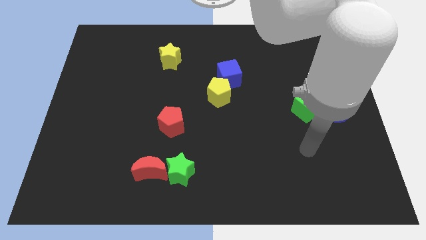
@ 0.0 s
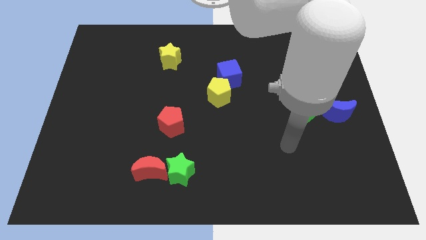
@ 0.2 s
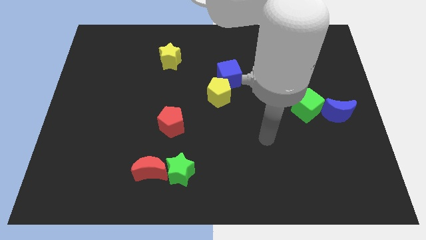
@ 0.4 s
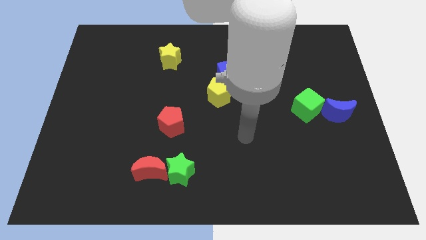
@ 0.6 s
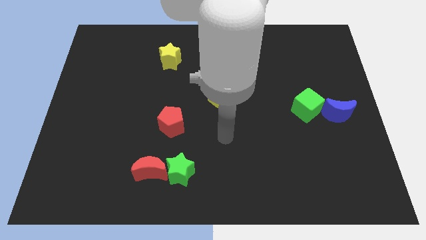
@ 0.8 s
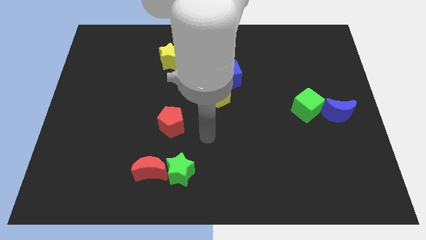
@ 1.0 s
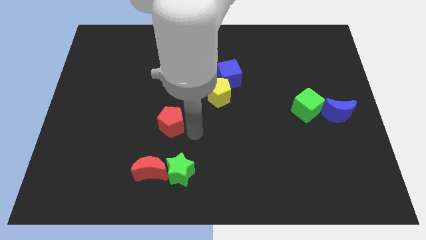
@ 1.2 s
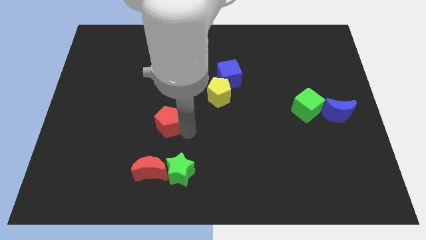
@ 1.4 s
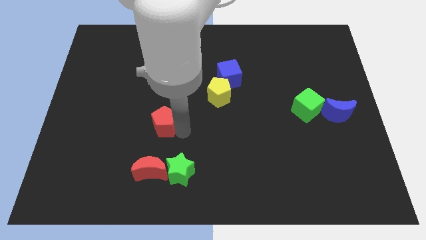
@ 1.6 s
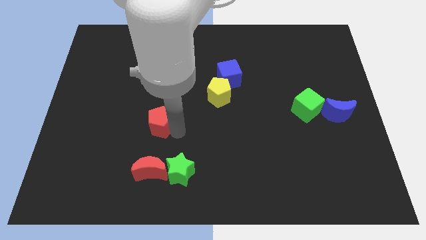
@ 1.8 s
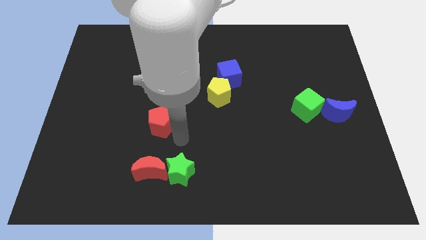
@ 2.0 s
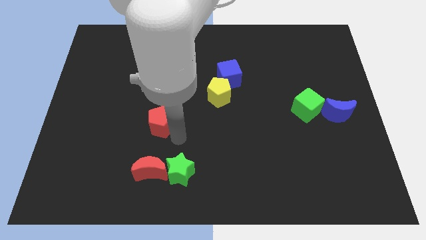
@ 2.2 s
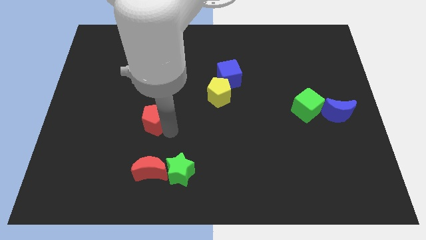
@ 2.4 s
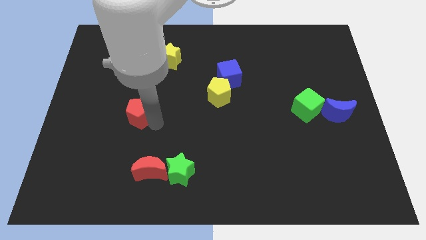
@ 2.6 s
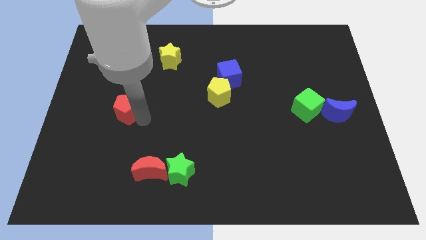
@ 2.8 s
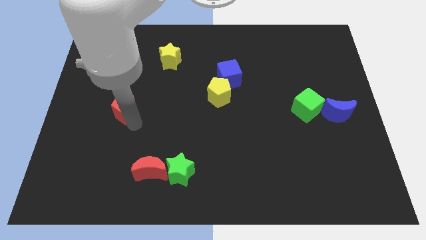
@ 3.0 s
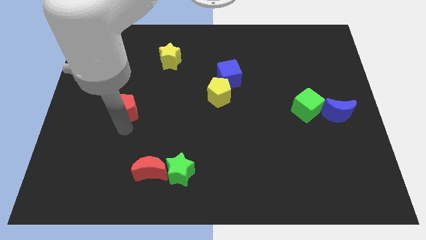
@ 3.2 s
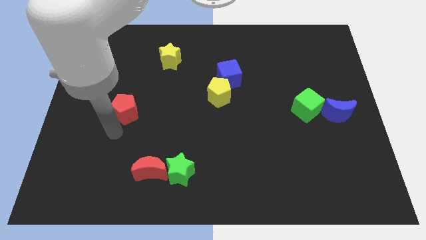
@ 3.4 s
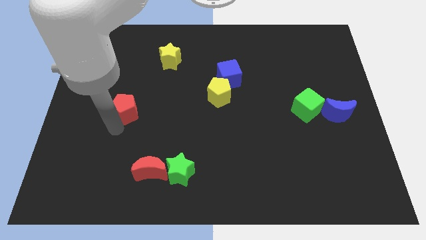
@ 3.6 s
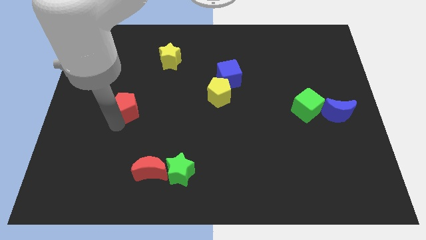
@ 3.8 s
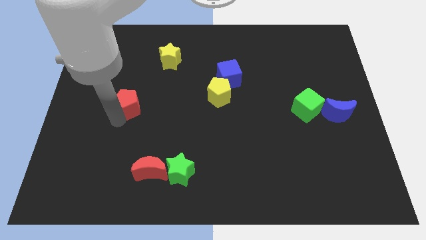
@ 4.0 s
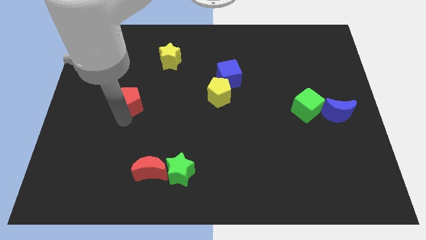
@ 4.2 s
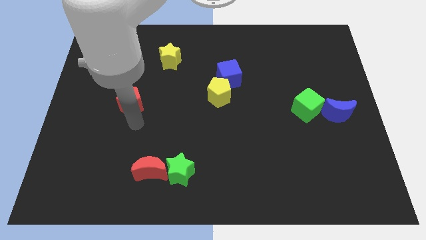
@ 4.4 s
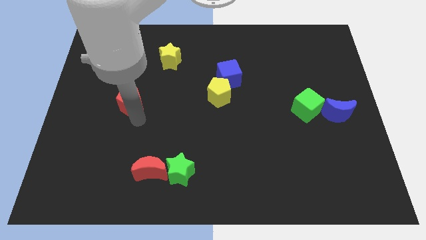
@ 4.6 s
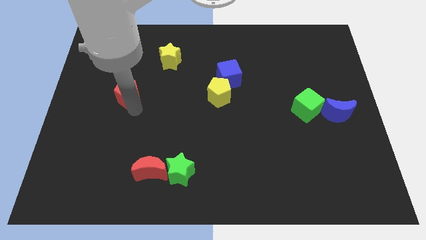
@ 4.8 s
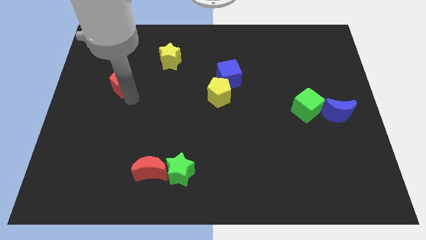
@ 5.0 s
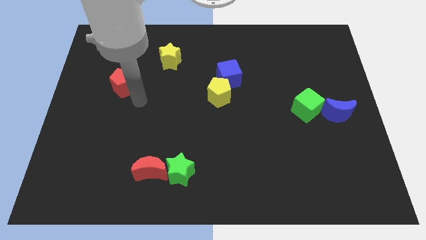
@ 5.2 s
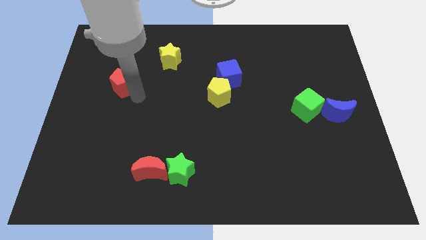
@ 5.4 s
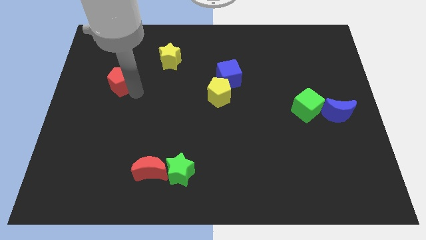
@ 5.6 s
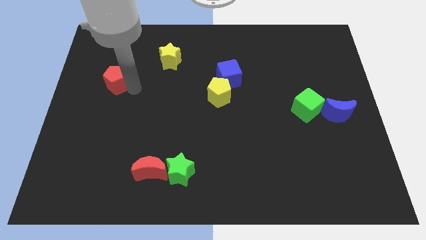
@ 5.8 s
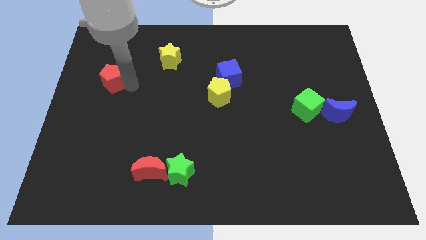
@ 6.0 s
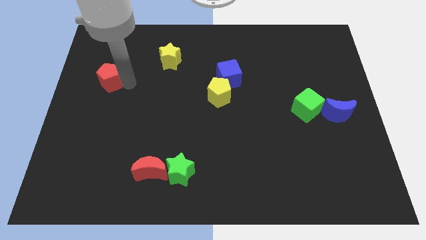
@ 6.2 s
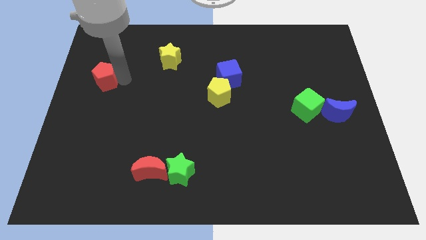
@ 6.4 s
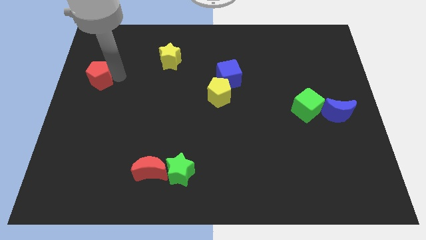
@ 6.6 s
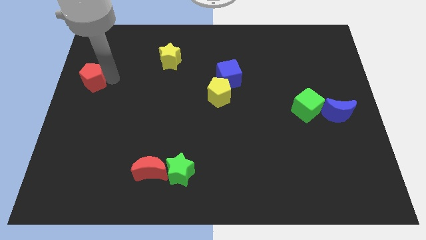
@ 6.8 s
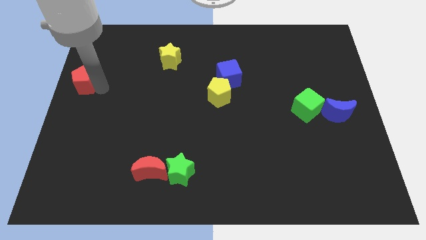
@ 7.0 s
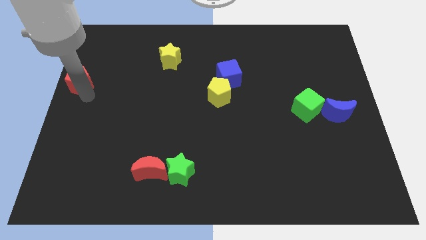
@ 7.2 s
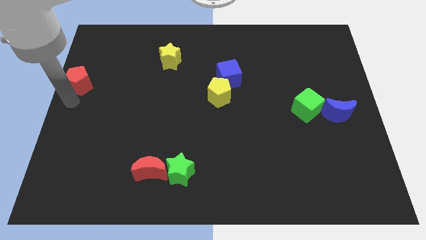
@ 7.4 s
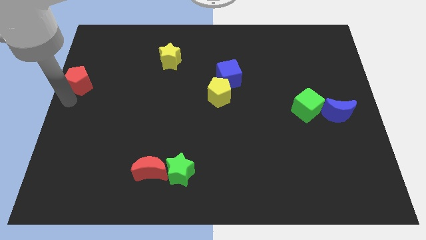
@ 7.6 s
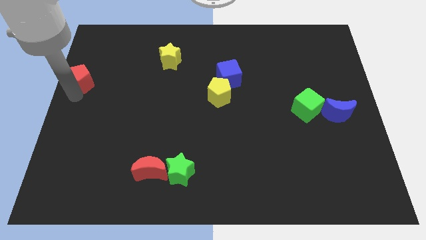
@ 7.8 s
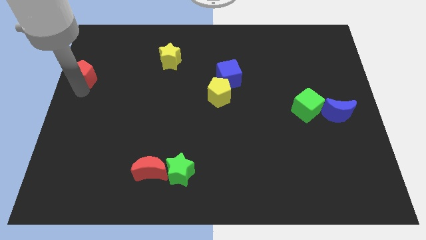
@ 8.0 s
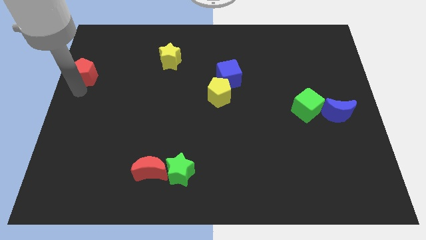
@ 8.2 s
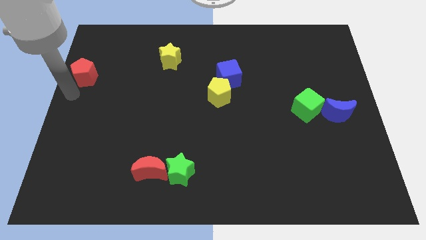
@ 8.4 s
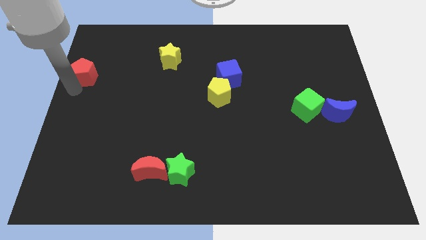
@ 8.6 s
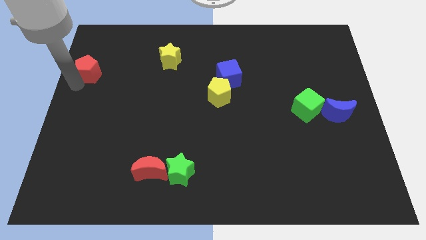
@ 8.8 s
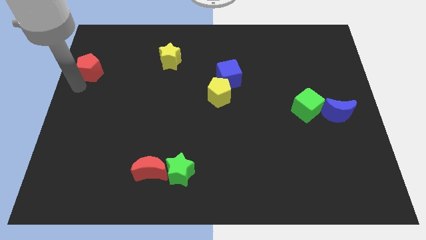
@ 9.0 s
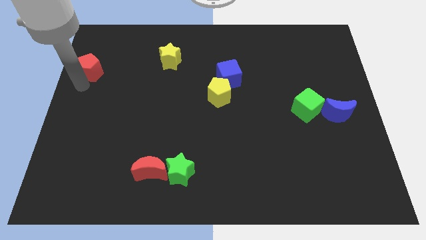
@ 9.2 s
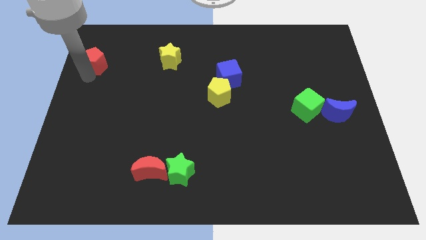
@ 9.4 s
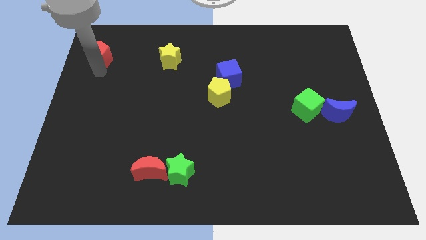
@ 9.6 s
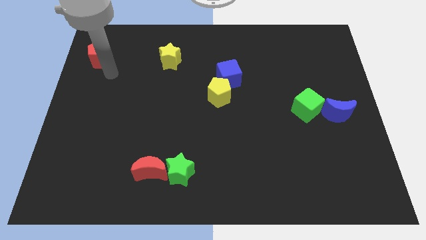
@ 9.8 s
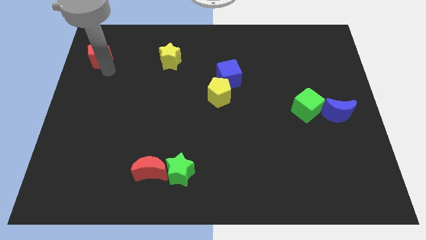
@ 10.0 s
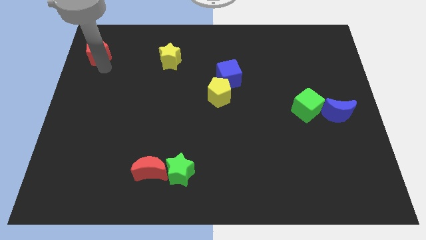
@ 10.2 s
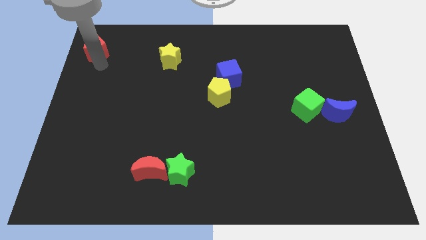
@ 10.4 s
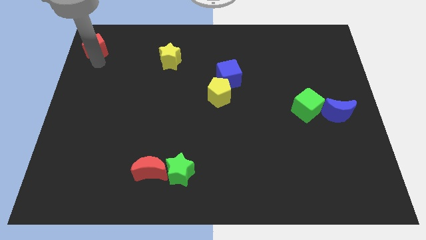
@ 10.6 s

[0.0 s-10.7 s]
put the red pentagon to the top left

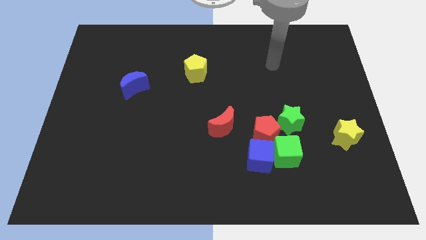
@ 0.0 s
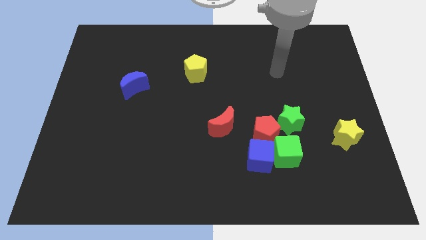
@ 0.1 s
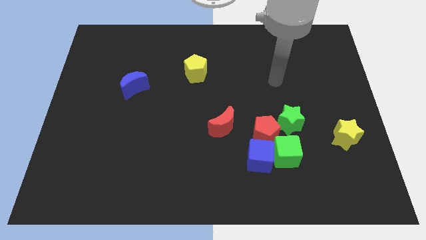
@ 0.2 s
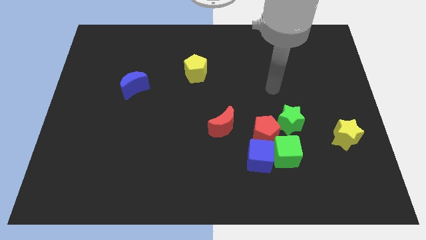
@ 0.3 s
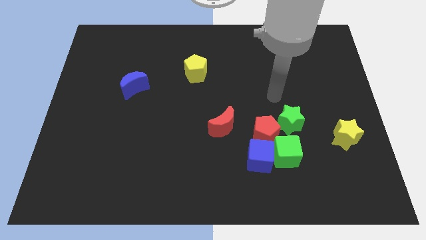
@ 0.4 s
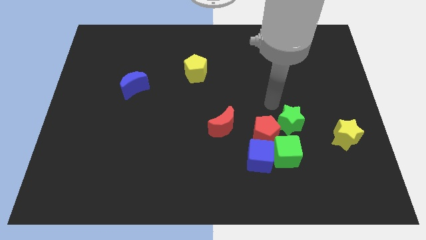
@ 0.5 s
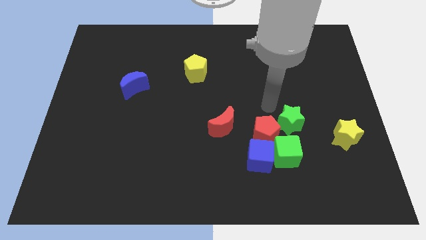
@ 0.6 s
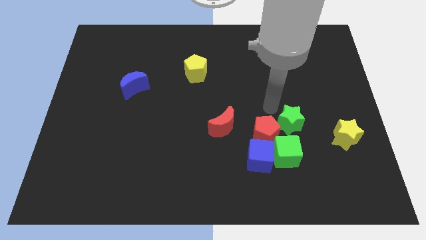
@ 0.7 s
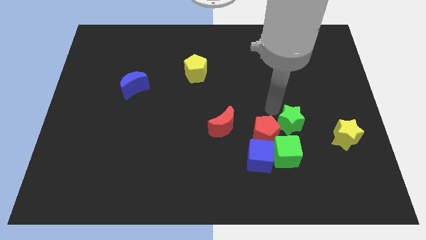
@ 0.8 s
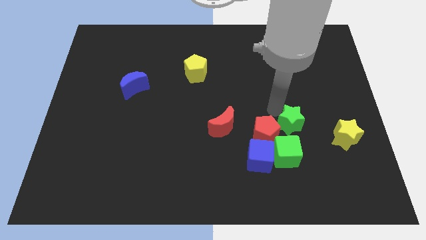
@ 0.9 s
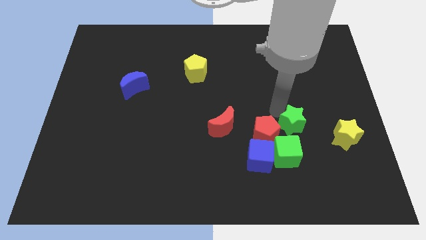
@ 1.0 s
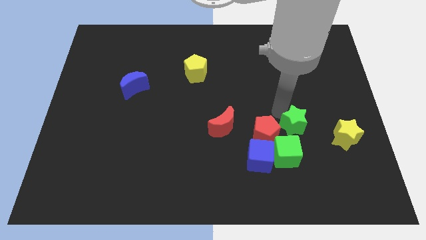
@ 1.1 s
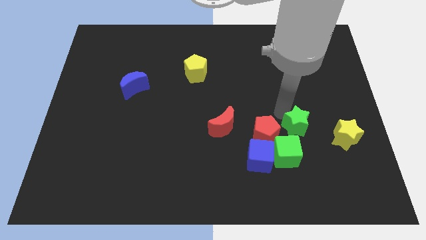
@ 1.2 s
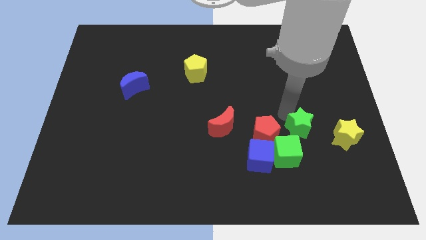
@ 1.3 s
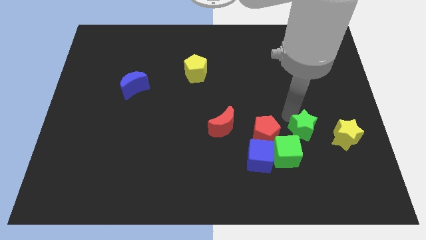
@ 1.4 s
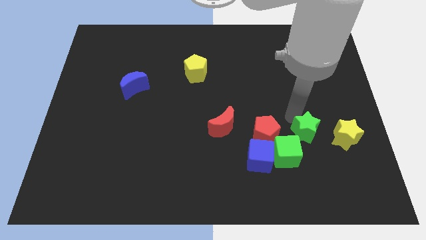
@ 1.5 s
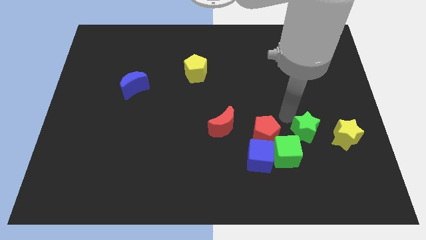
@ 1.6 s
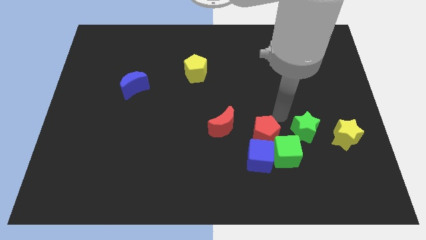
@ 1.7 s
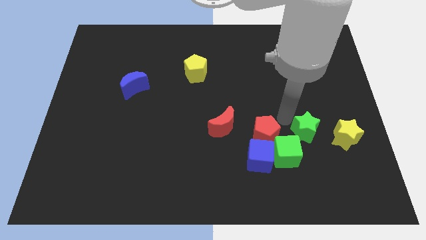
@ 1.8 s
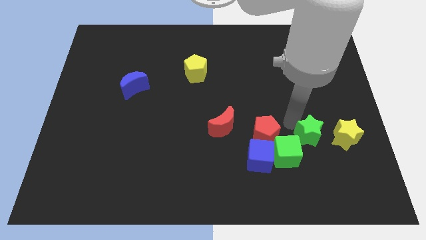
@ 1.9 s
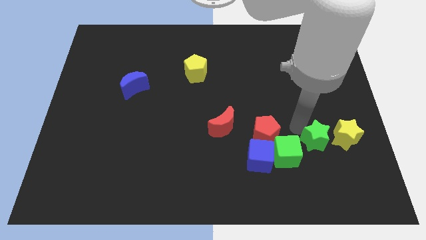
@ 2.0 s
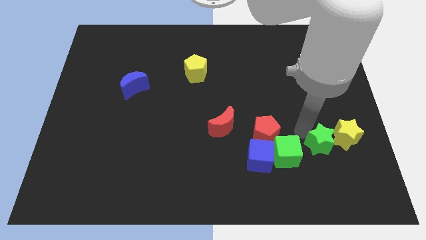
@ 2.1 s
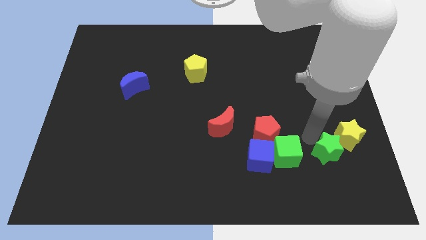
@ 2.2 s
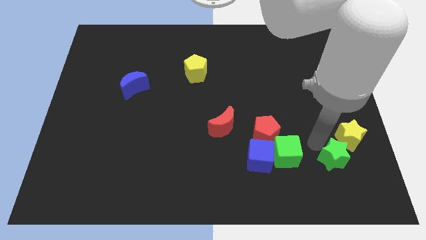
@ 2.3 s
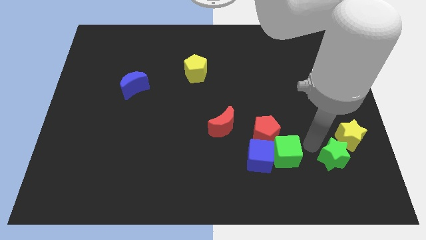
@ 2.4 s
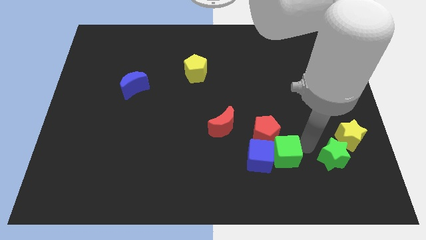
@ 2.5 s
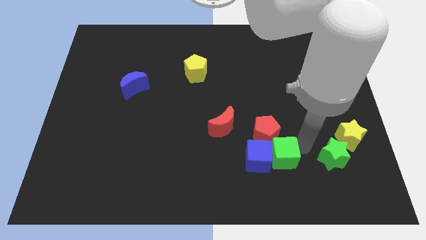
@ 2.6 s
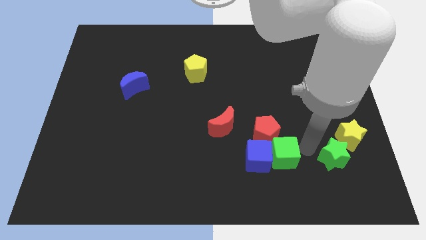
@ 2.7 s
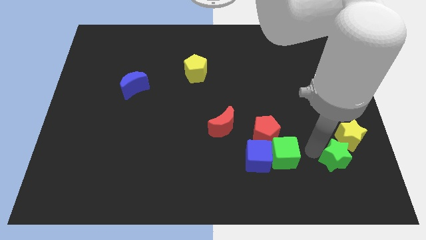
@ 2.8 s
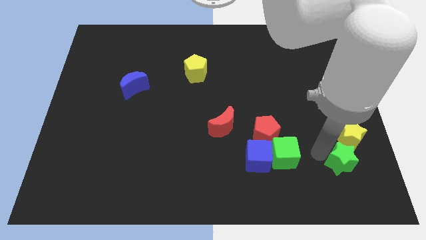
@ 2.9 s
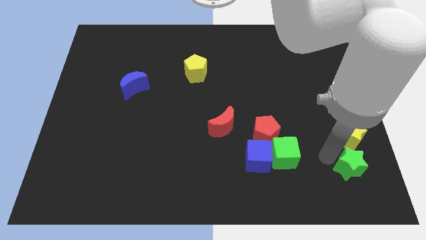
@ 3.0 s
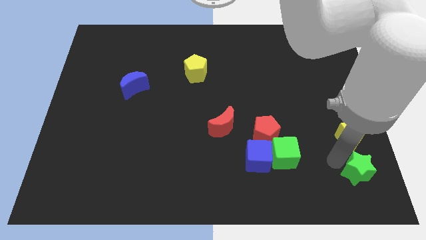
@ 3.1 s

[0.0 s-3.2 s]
move the green star to the lower right corner
